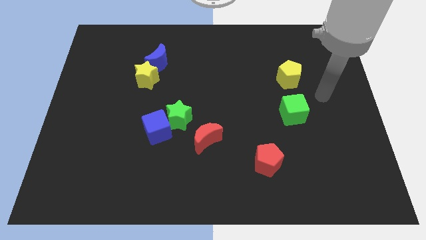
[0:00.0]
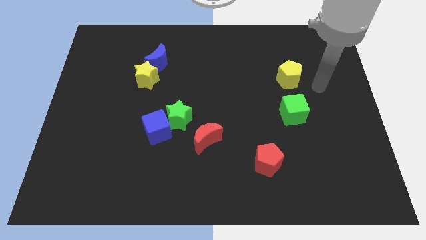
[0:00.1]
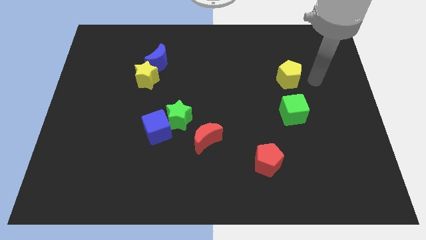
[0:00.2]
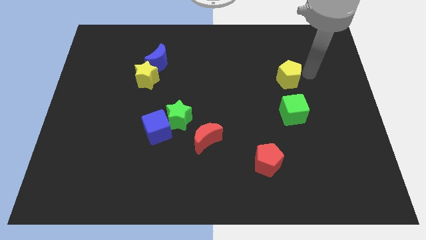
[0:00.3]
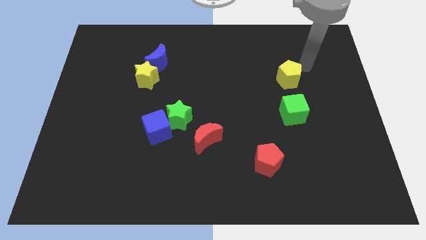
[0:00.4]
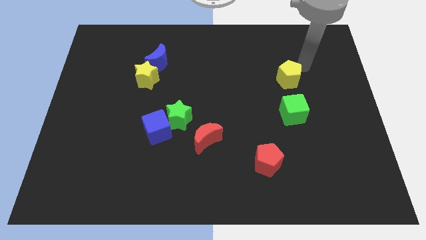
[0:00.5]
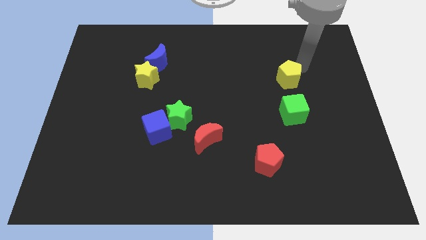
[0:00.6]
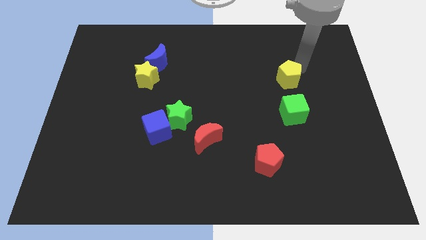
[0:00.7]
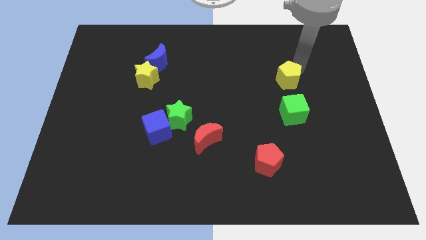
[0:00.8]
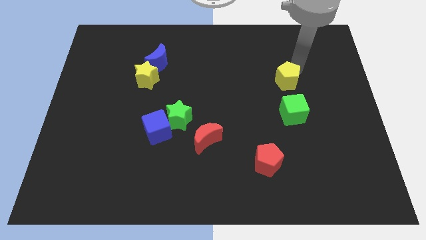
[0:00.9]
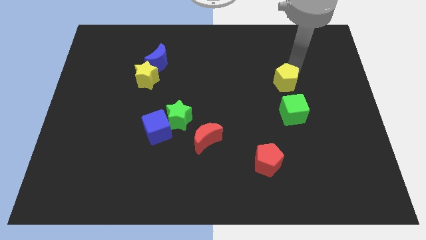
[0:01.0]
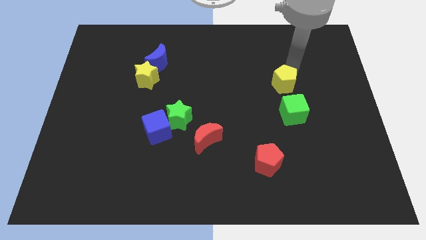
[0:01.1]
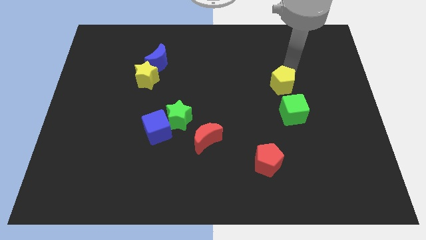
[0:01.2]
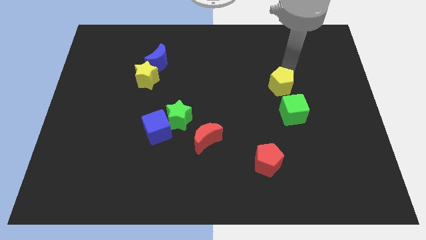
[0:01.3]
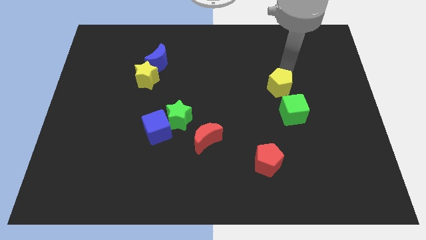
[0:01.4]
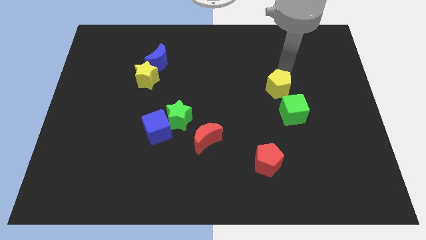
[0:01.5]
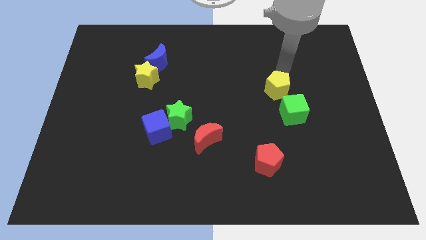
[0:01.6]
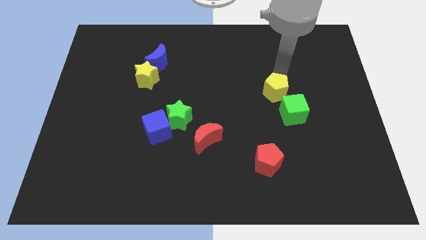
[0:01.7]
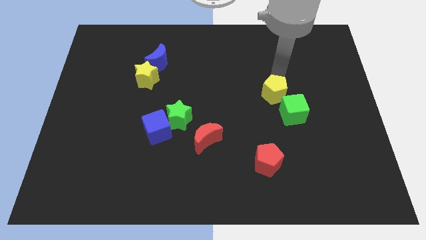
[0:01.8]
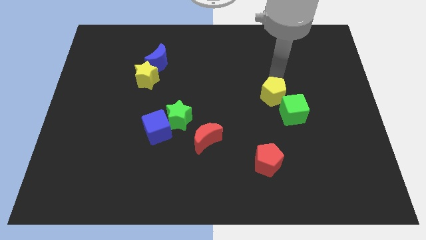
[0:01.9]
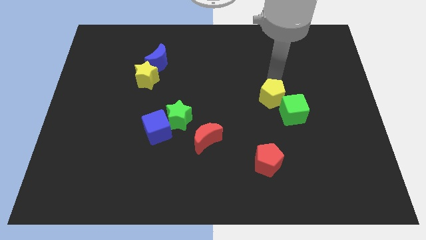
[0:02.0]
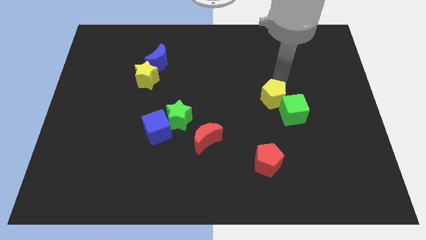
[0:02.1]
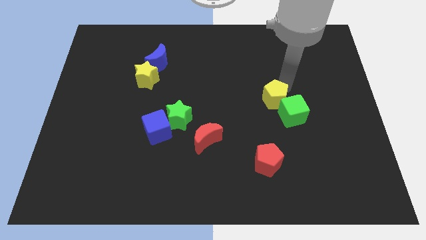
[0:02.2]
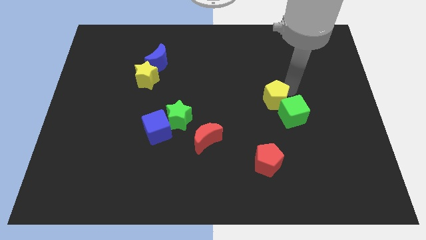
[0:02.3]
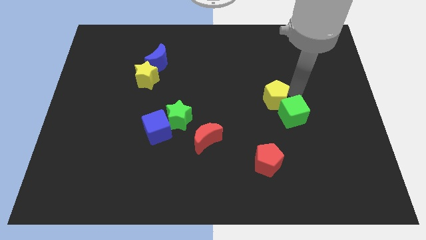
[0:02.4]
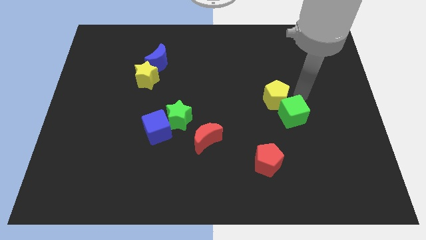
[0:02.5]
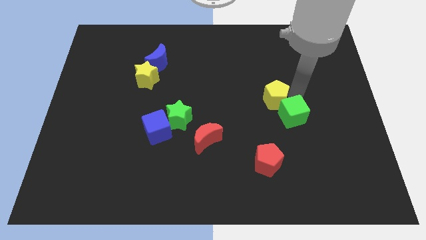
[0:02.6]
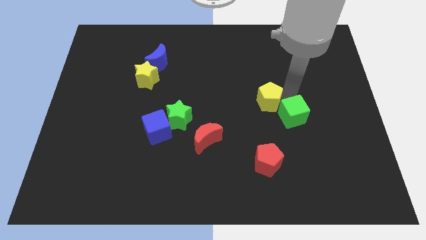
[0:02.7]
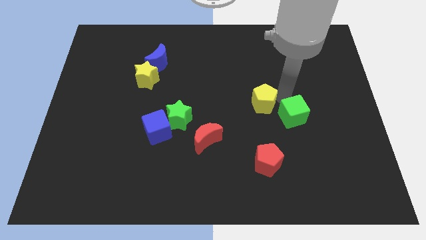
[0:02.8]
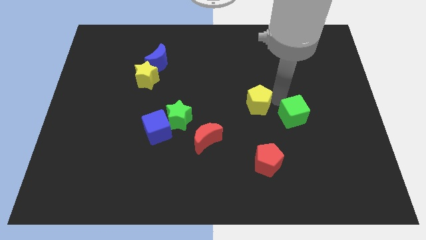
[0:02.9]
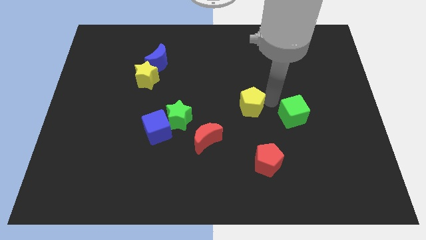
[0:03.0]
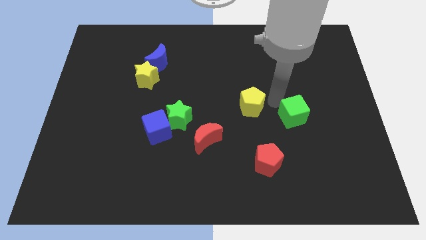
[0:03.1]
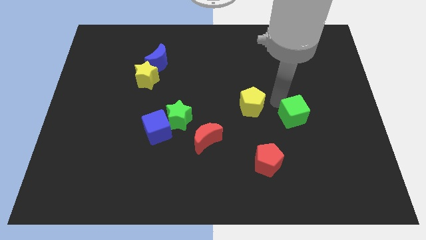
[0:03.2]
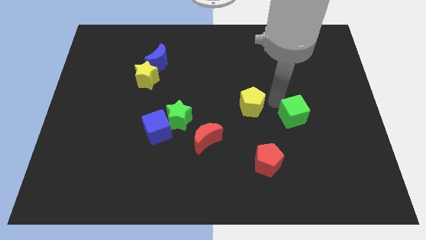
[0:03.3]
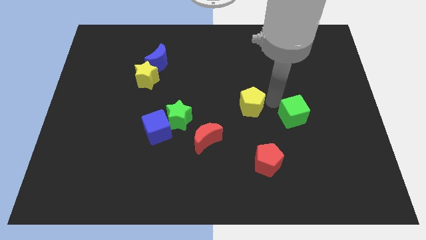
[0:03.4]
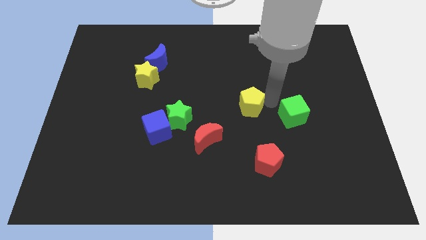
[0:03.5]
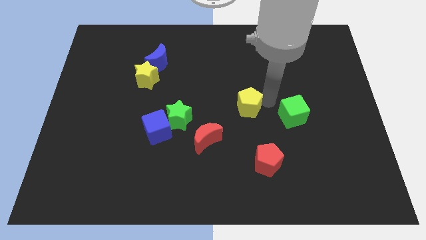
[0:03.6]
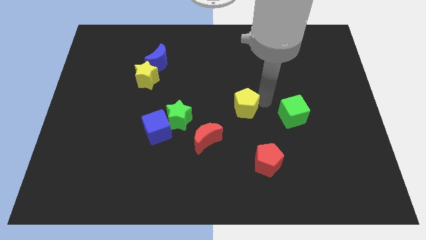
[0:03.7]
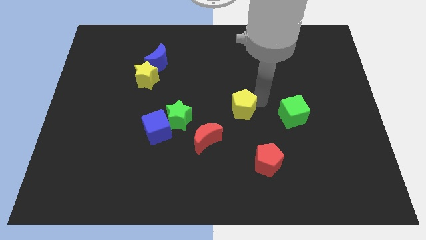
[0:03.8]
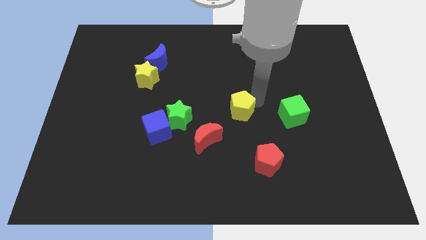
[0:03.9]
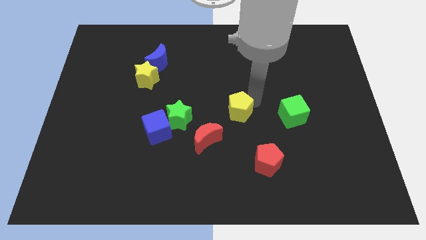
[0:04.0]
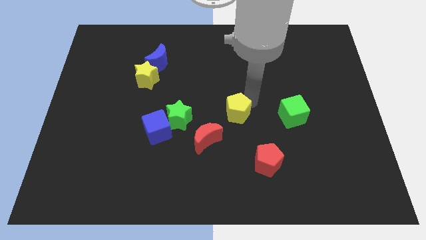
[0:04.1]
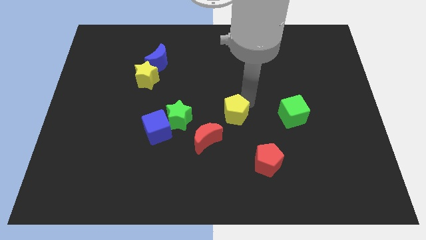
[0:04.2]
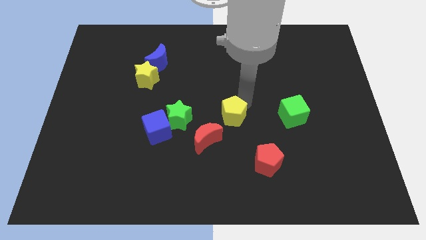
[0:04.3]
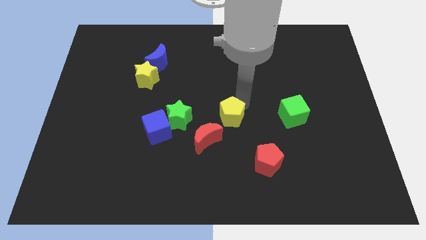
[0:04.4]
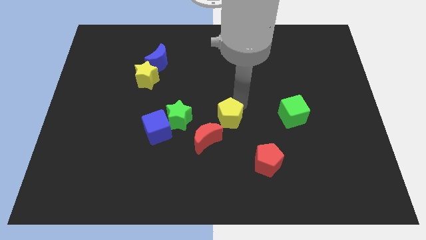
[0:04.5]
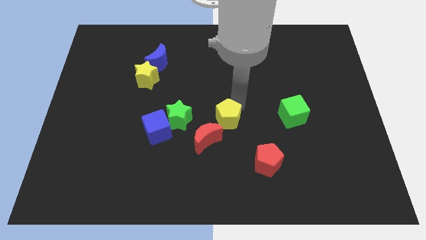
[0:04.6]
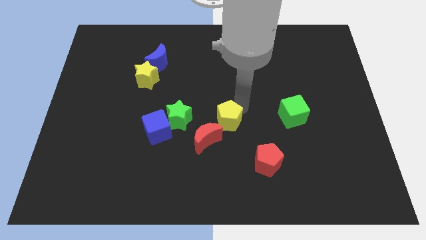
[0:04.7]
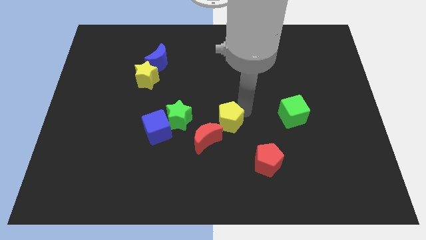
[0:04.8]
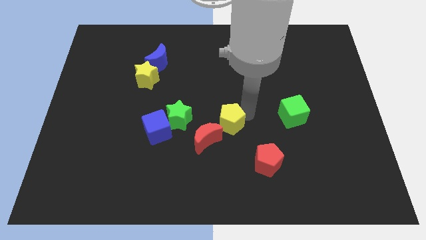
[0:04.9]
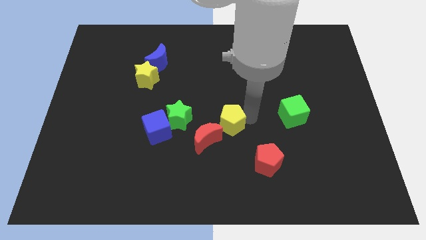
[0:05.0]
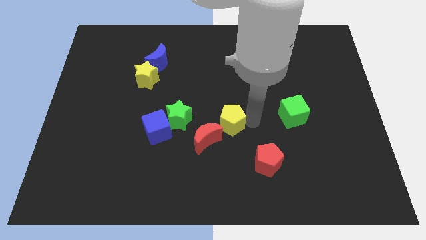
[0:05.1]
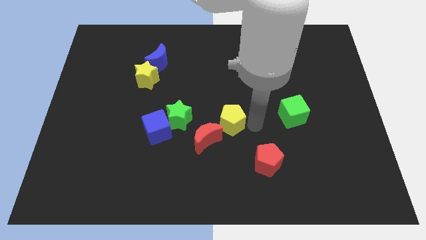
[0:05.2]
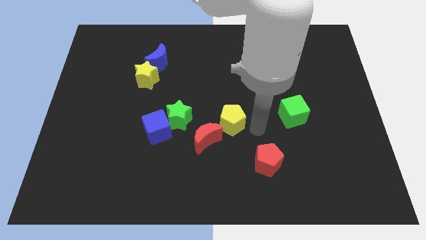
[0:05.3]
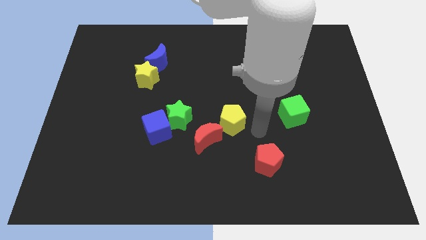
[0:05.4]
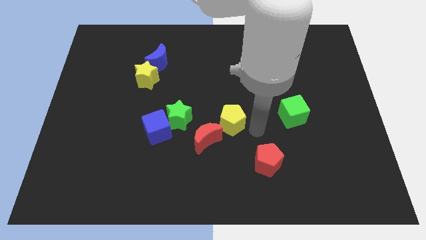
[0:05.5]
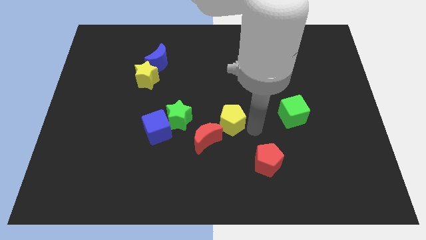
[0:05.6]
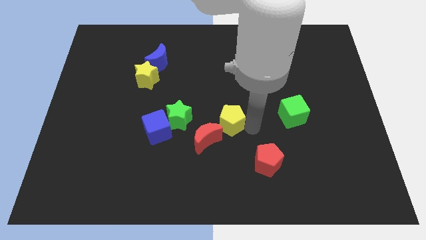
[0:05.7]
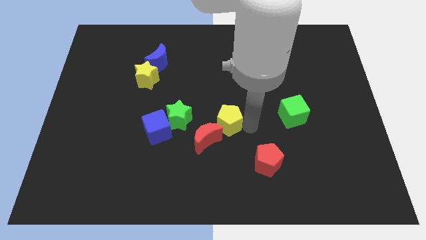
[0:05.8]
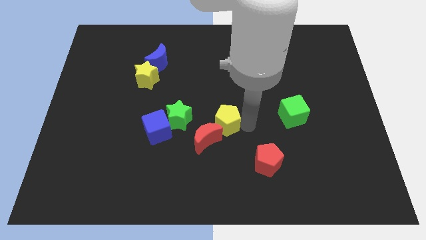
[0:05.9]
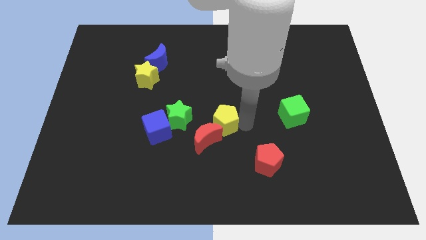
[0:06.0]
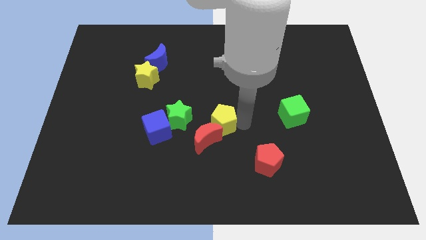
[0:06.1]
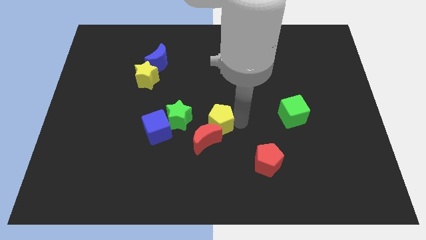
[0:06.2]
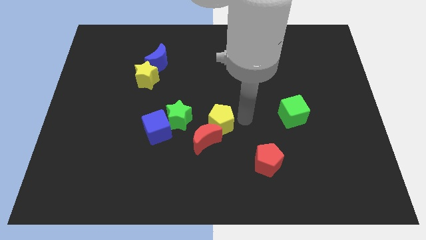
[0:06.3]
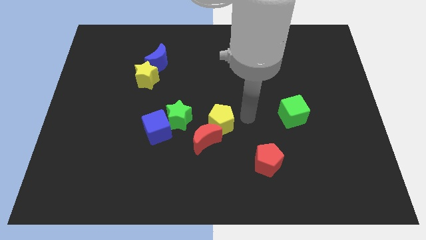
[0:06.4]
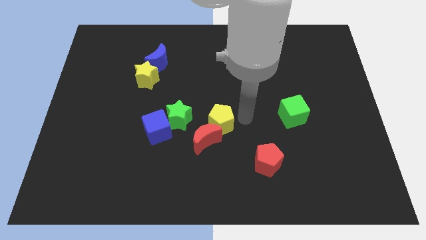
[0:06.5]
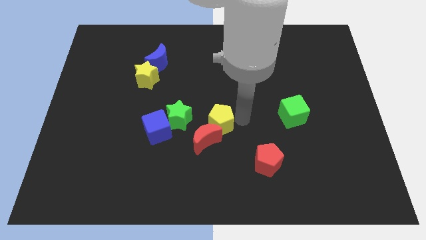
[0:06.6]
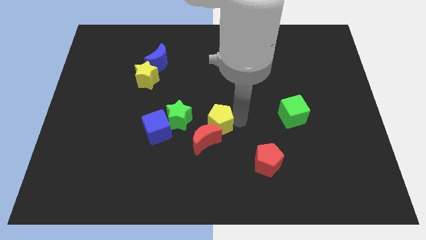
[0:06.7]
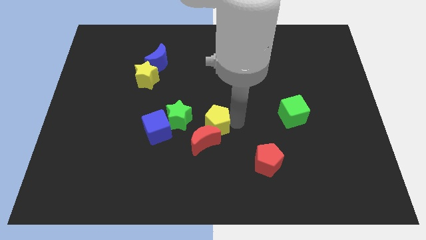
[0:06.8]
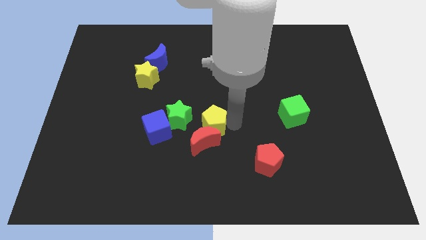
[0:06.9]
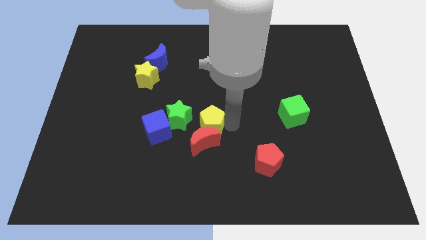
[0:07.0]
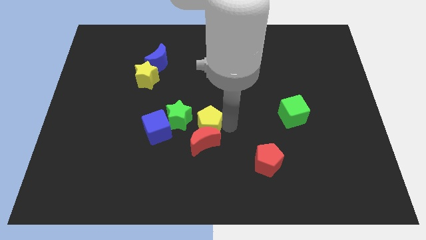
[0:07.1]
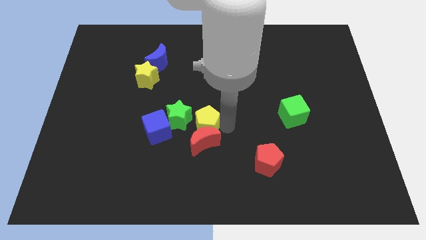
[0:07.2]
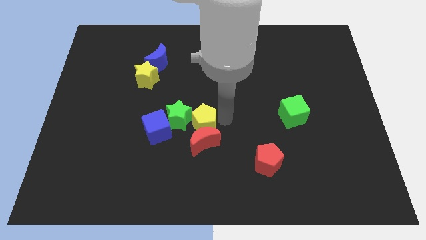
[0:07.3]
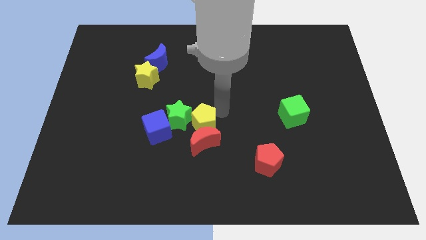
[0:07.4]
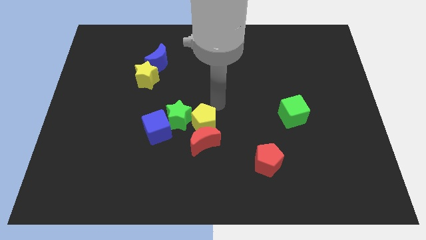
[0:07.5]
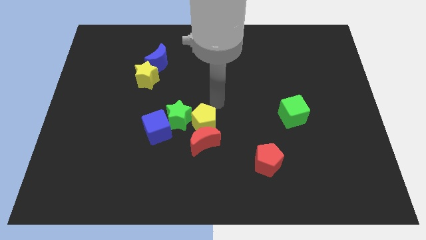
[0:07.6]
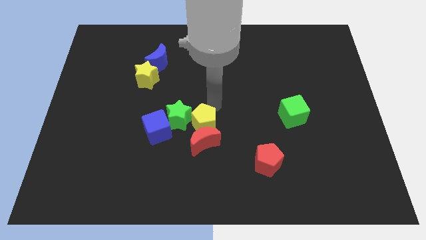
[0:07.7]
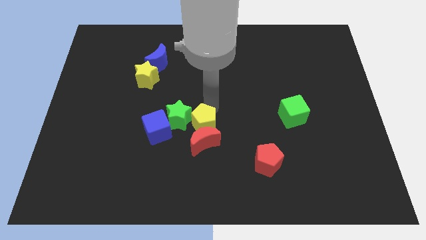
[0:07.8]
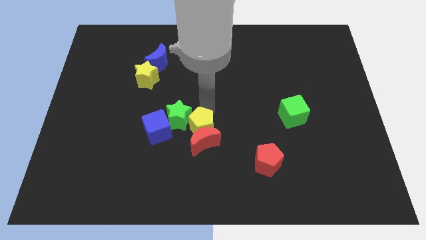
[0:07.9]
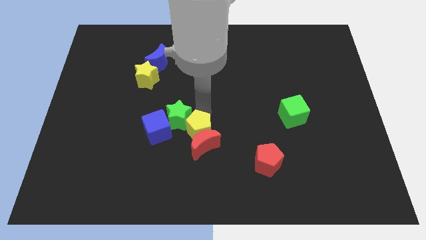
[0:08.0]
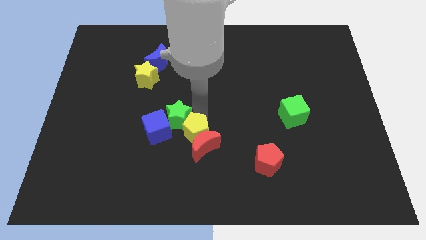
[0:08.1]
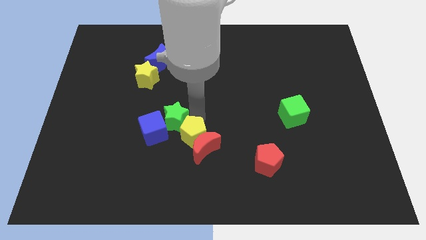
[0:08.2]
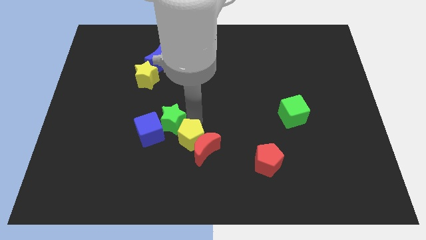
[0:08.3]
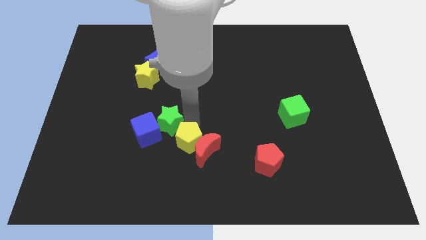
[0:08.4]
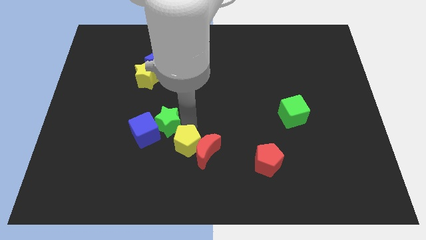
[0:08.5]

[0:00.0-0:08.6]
push the yellow pentagon to the bottom left of the red moon
